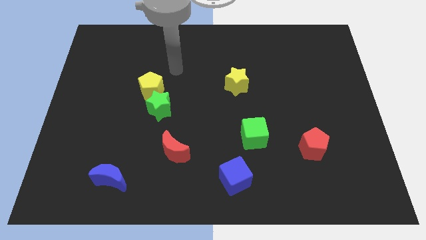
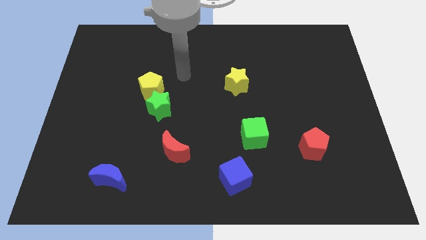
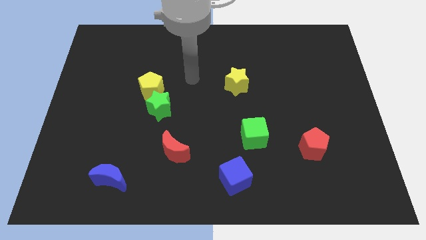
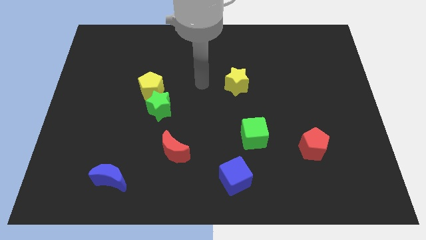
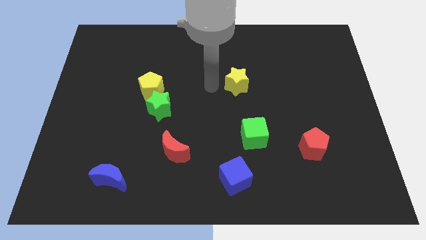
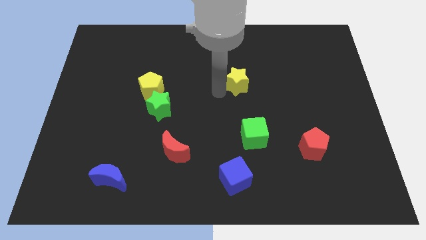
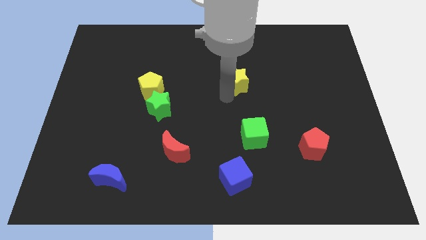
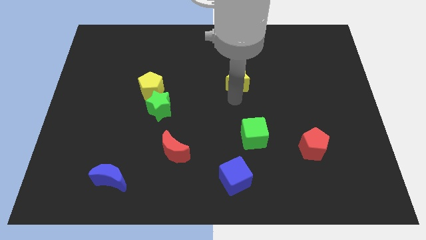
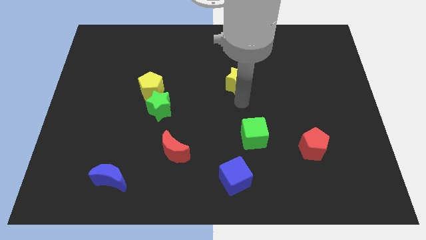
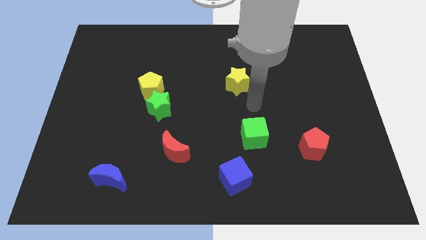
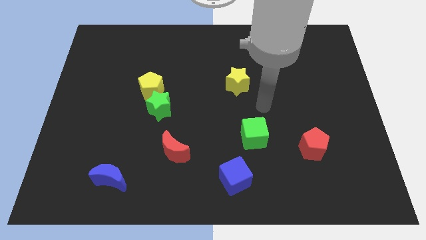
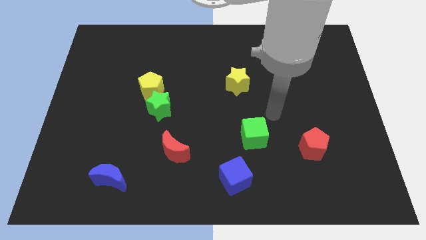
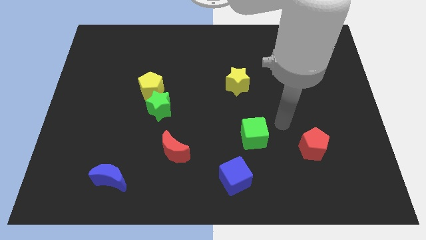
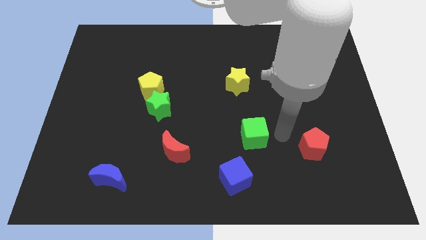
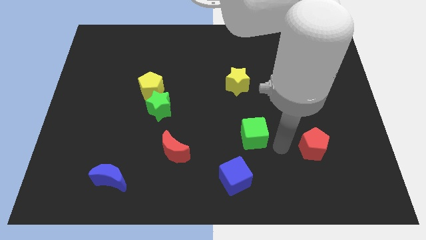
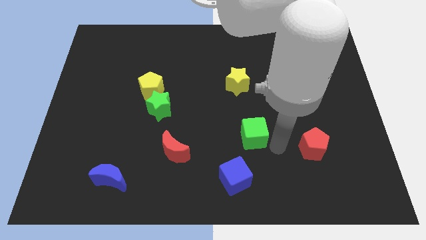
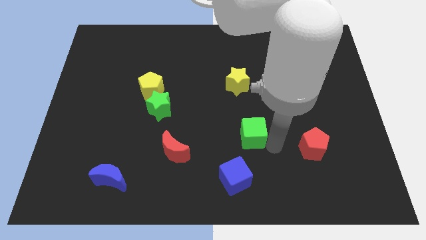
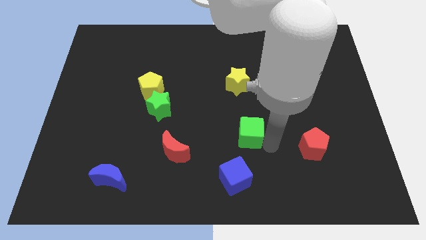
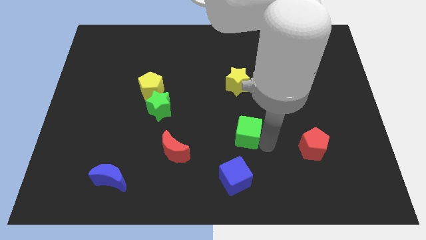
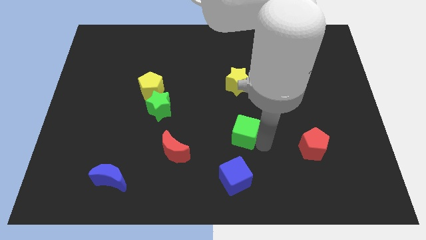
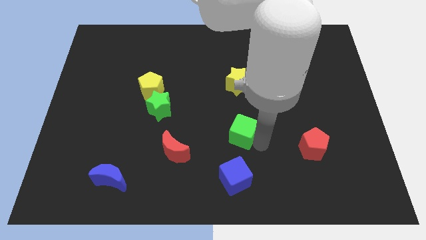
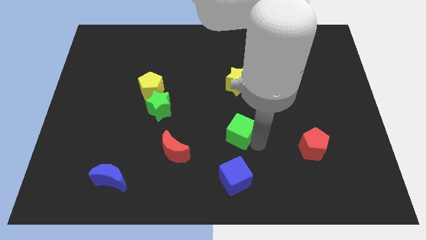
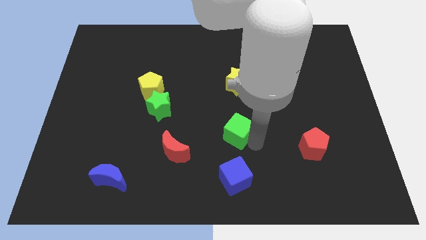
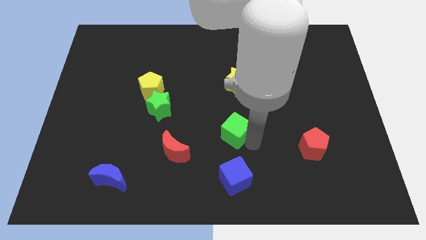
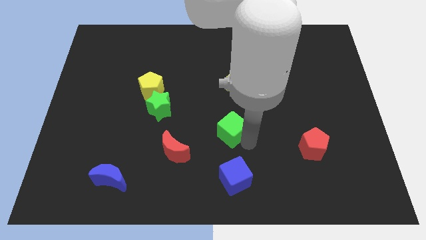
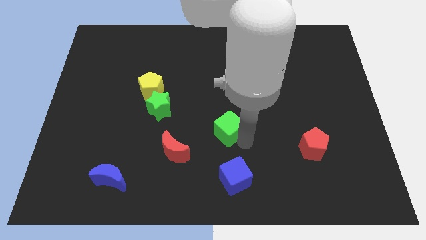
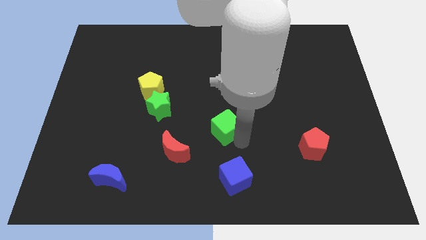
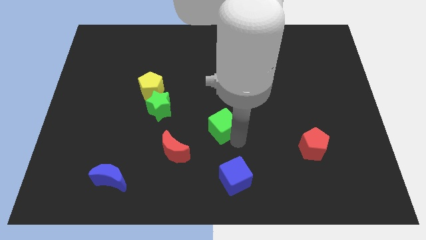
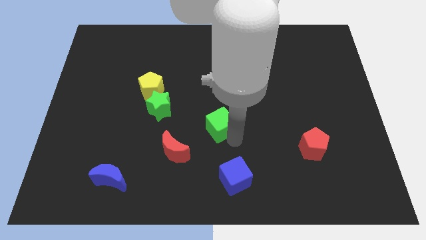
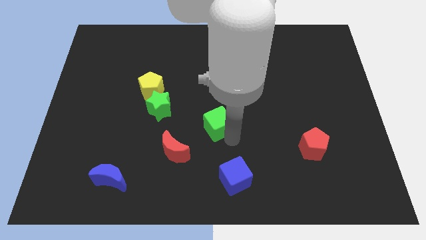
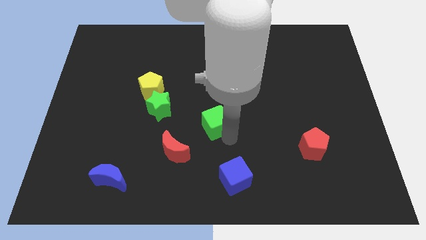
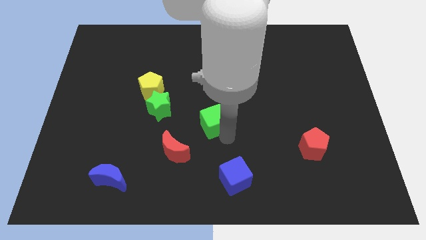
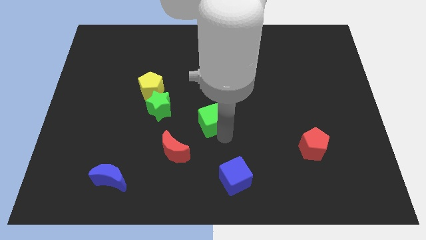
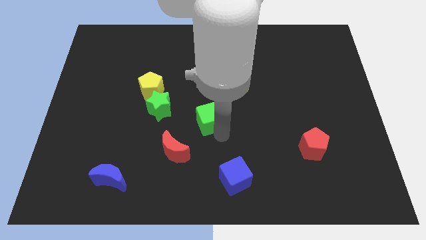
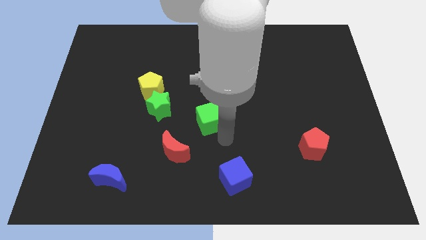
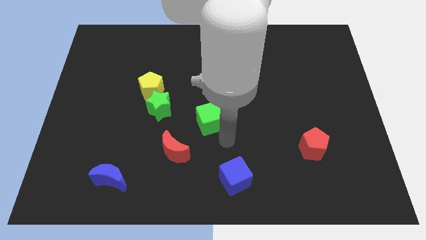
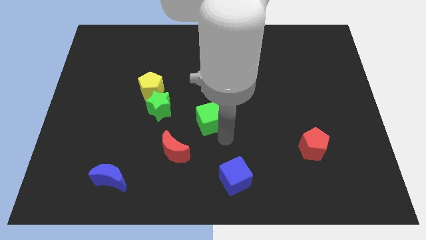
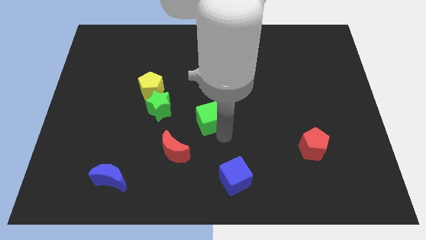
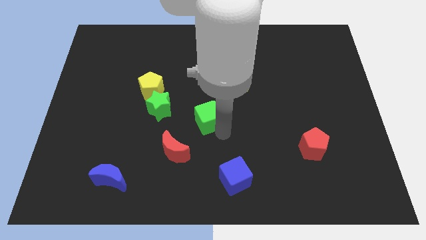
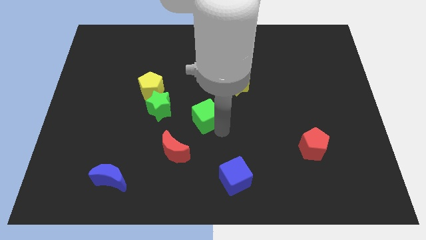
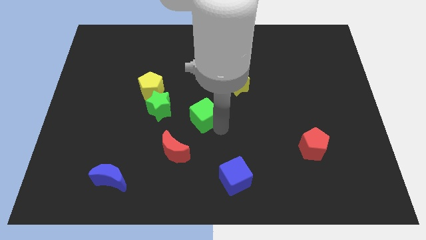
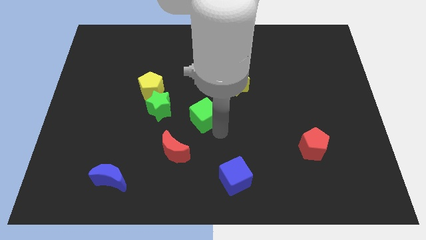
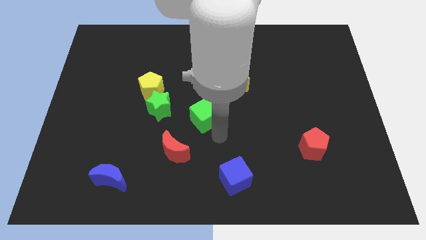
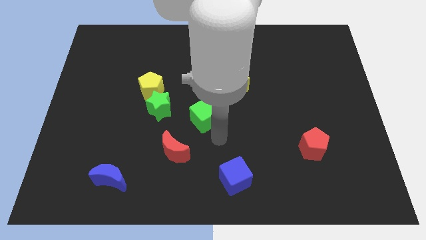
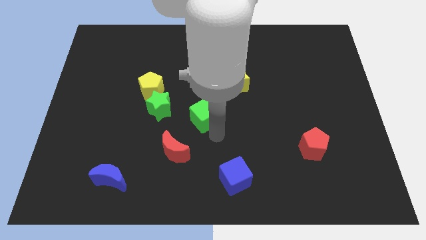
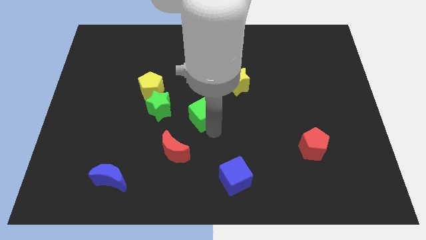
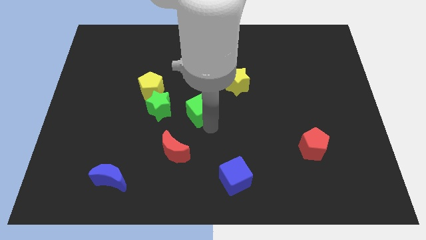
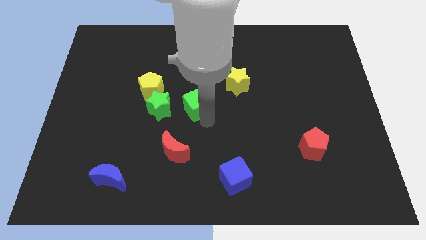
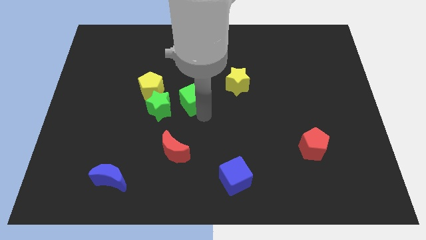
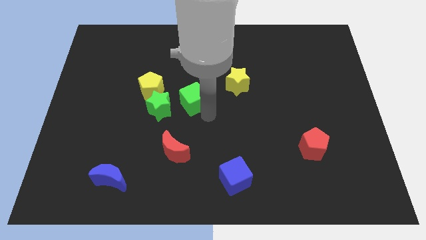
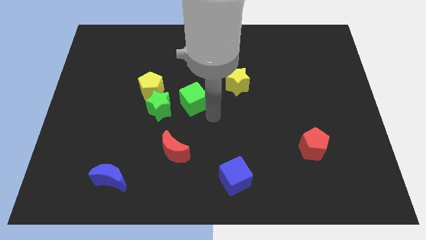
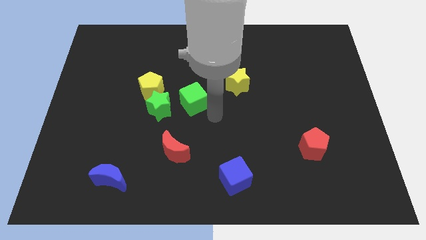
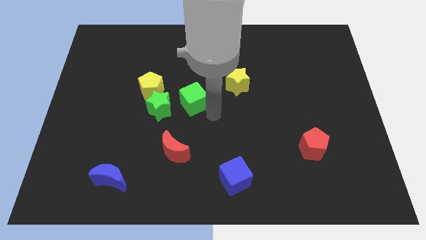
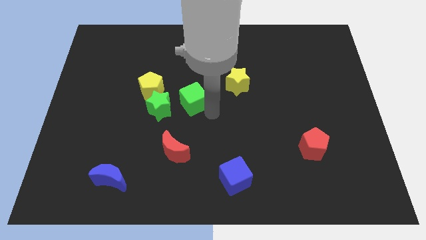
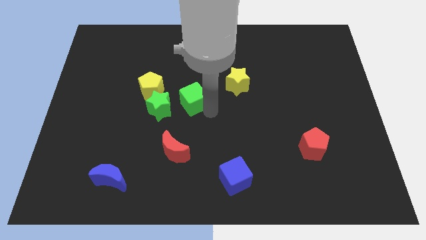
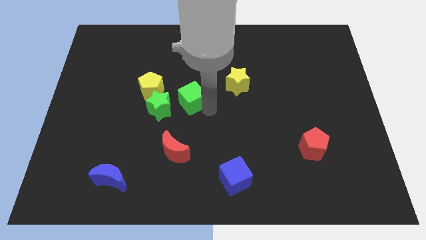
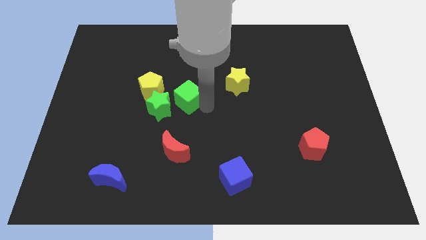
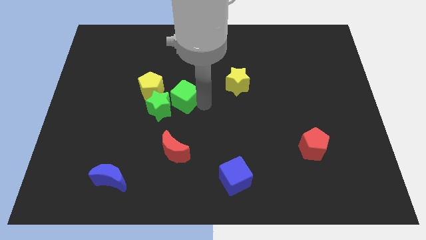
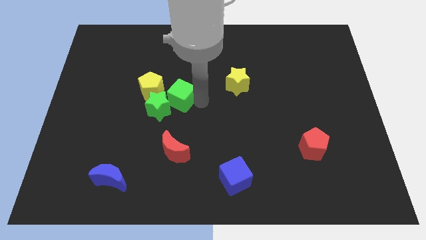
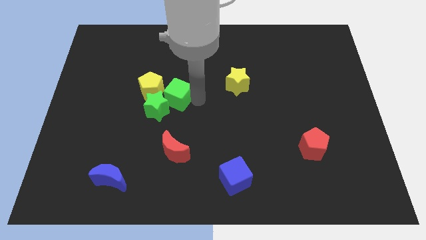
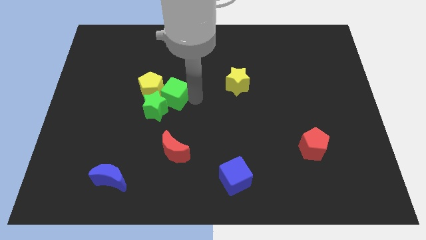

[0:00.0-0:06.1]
move the green cube to the yellow pentagon
